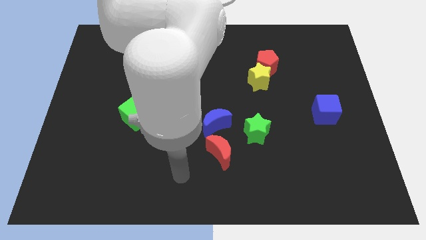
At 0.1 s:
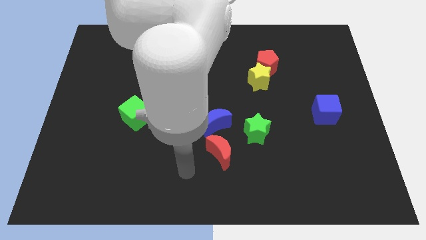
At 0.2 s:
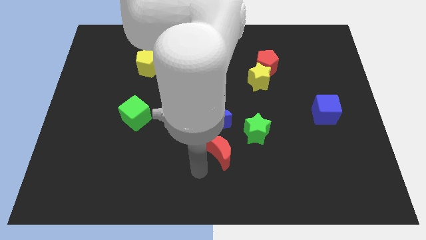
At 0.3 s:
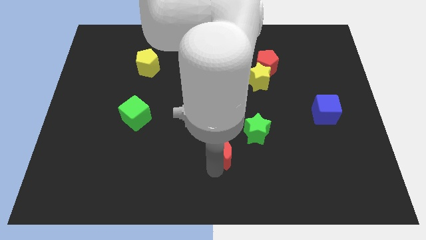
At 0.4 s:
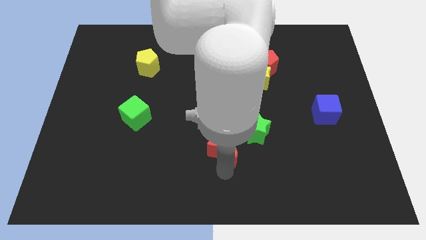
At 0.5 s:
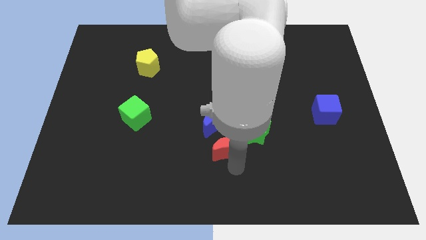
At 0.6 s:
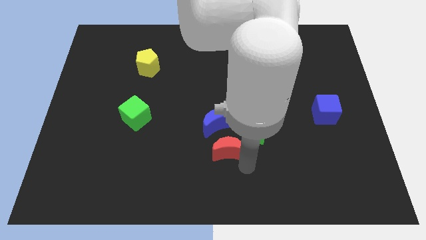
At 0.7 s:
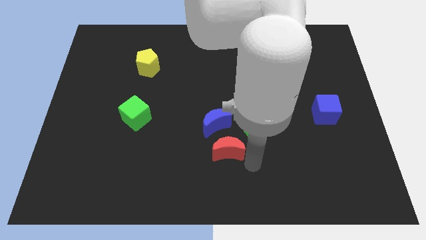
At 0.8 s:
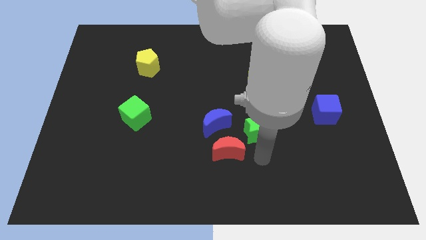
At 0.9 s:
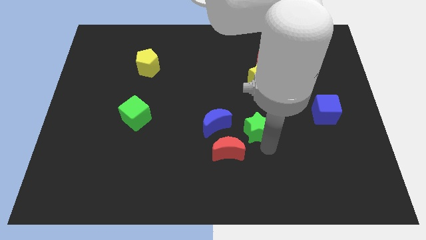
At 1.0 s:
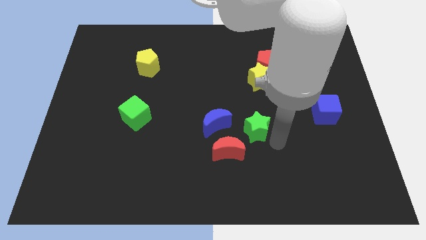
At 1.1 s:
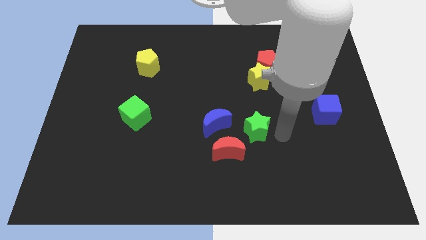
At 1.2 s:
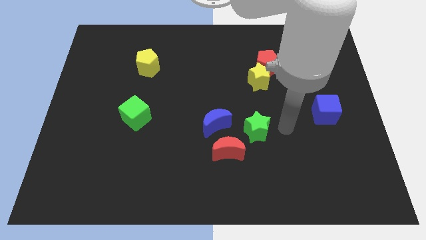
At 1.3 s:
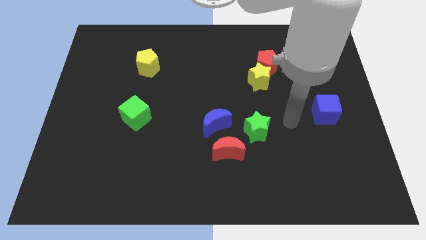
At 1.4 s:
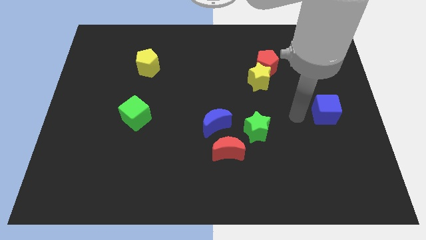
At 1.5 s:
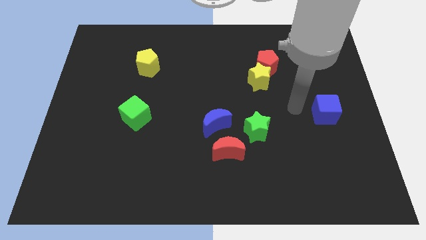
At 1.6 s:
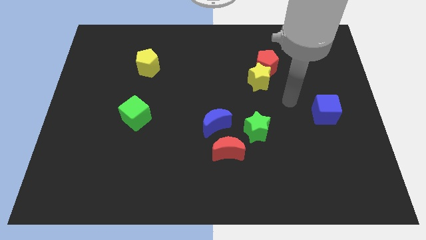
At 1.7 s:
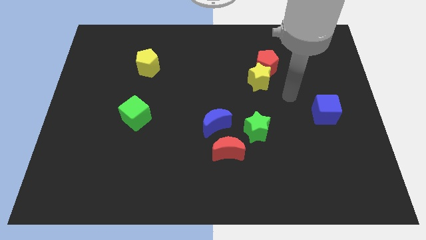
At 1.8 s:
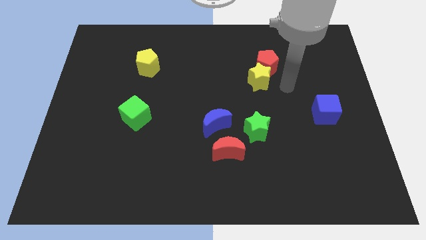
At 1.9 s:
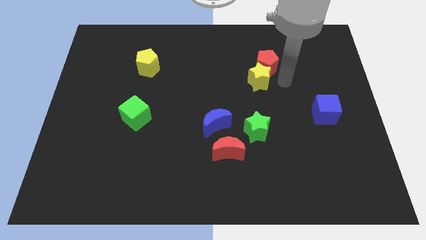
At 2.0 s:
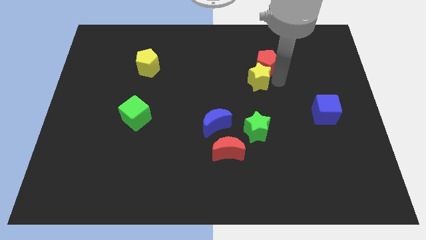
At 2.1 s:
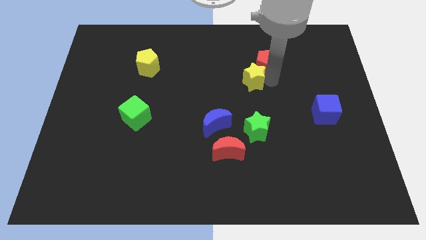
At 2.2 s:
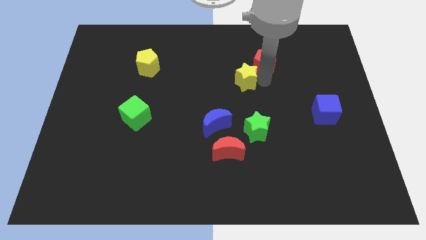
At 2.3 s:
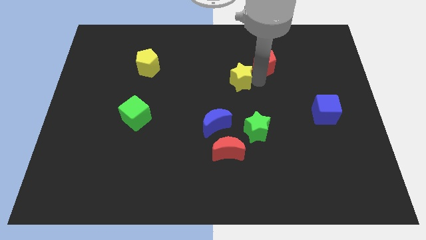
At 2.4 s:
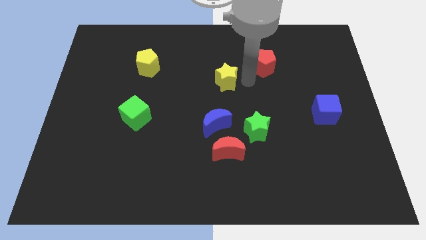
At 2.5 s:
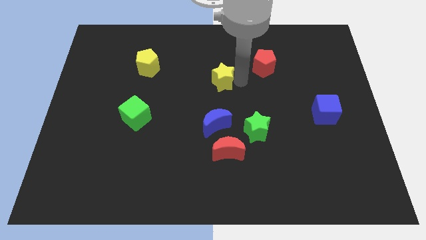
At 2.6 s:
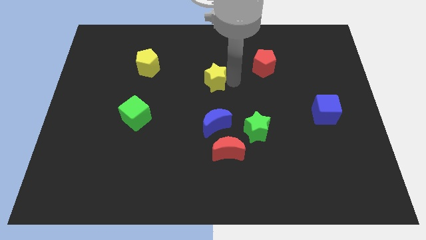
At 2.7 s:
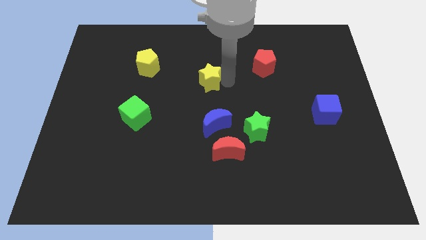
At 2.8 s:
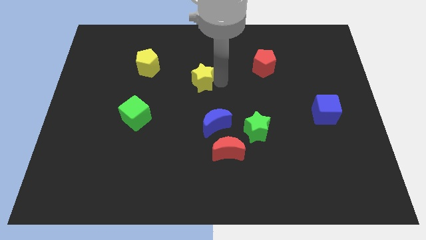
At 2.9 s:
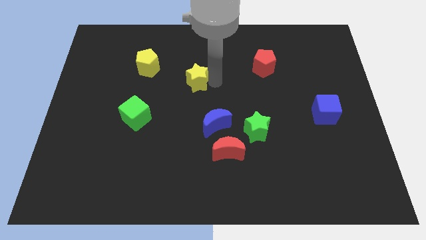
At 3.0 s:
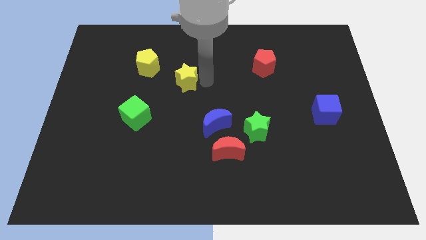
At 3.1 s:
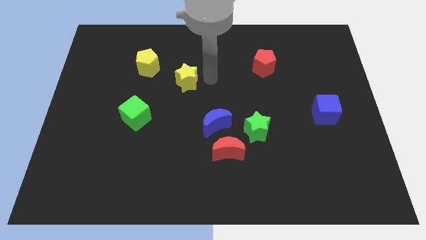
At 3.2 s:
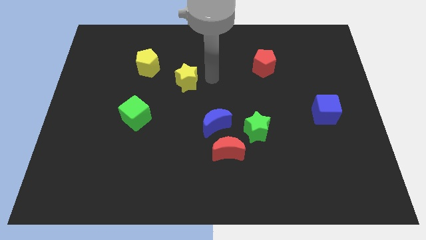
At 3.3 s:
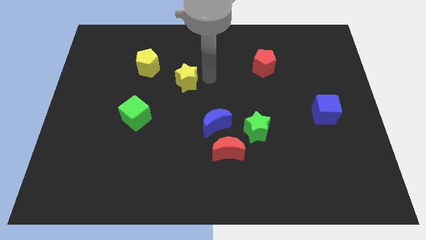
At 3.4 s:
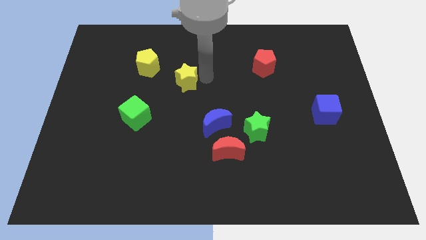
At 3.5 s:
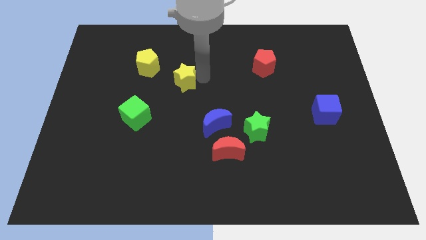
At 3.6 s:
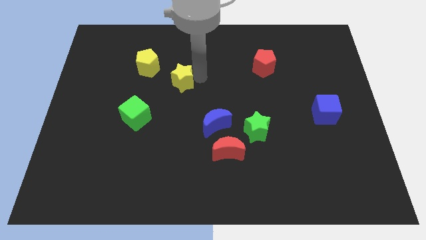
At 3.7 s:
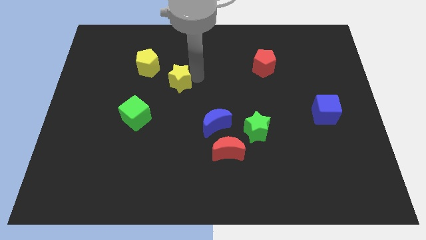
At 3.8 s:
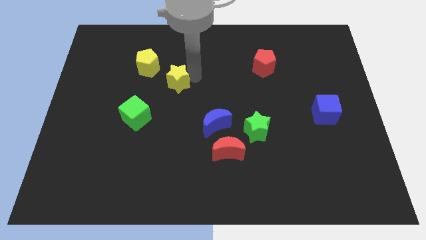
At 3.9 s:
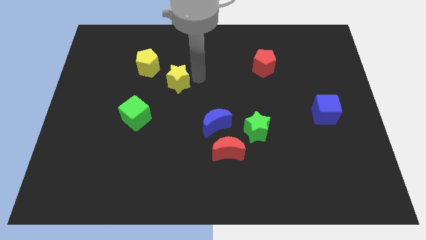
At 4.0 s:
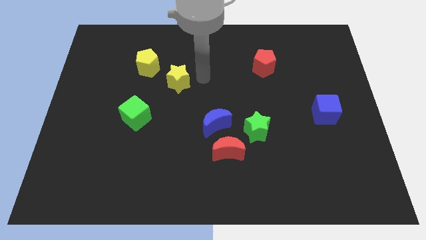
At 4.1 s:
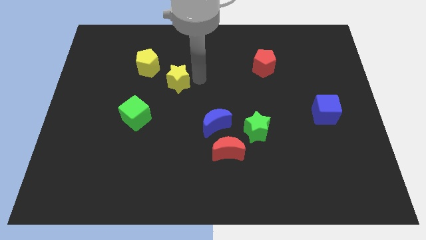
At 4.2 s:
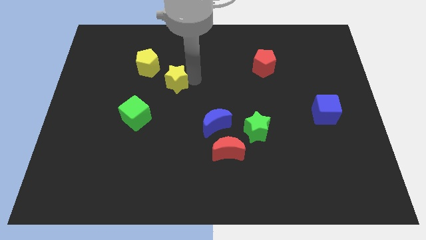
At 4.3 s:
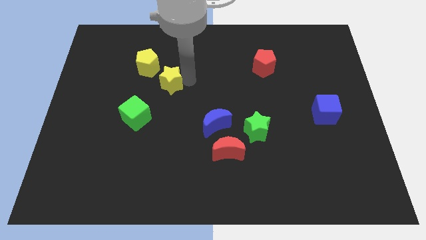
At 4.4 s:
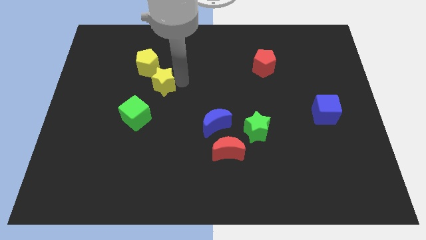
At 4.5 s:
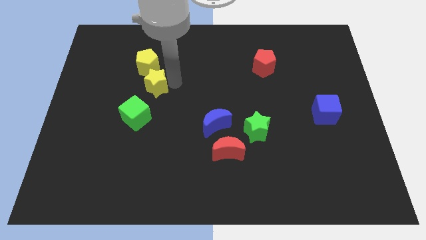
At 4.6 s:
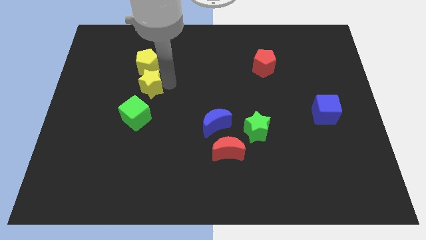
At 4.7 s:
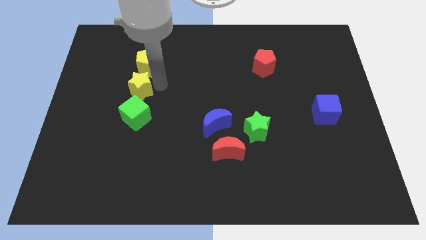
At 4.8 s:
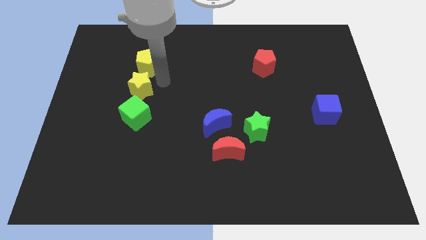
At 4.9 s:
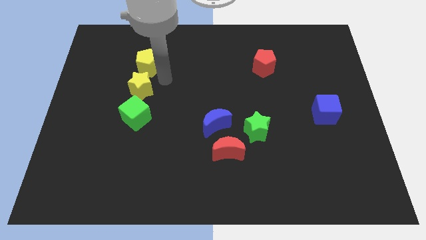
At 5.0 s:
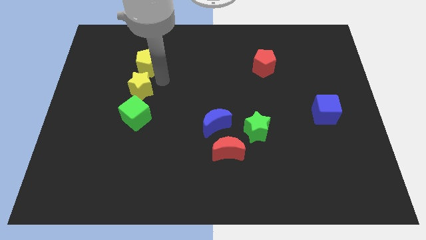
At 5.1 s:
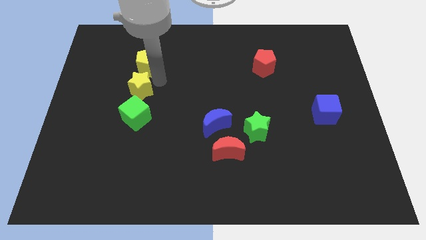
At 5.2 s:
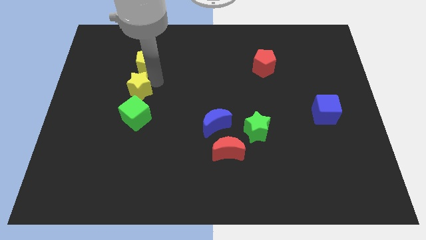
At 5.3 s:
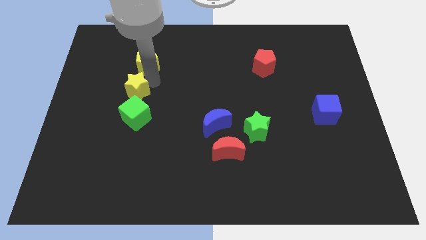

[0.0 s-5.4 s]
push the yellow star diagonally up and to the left of the green cube

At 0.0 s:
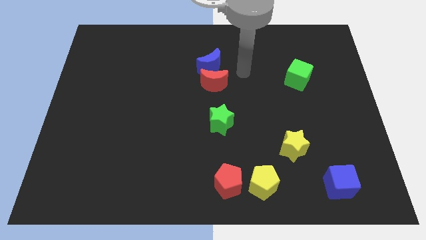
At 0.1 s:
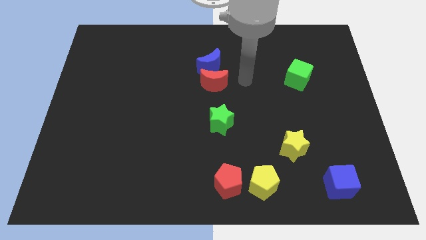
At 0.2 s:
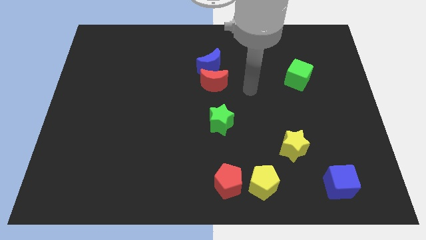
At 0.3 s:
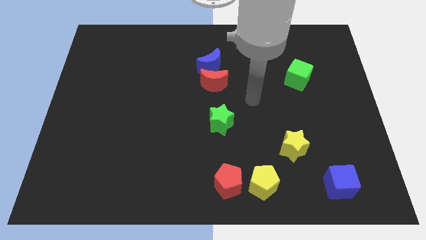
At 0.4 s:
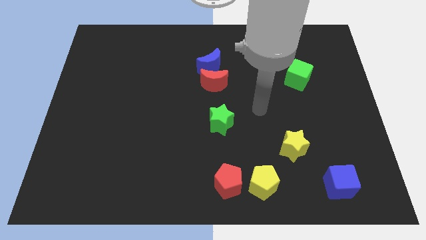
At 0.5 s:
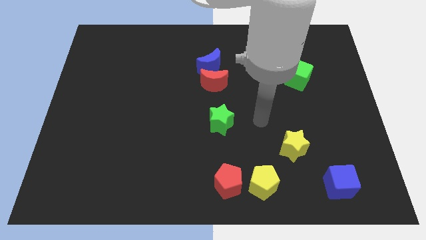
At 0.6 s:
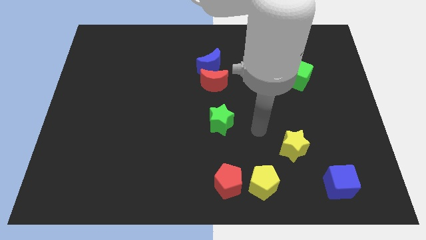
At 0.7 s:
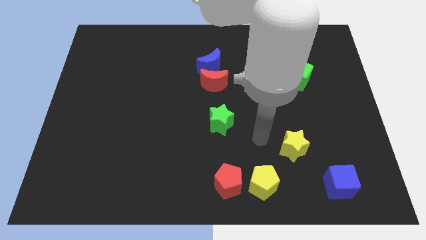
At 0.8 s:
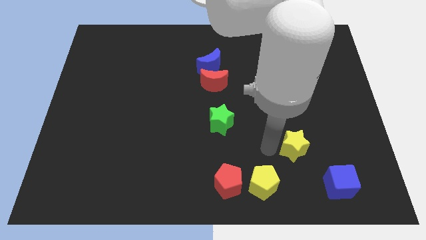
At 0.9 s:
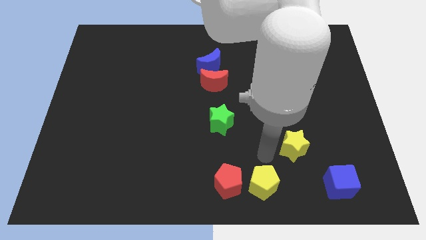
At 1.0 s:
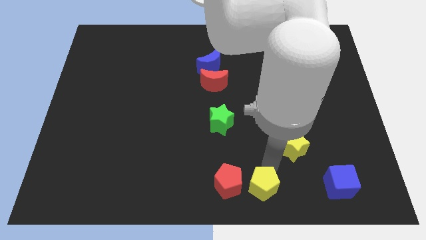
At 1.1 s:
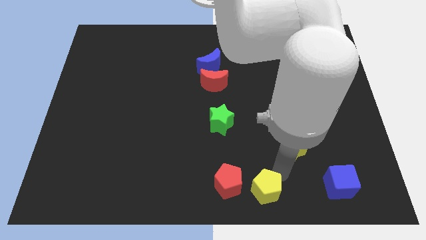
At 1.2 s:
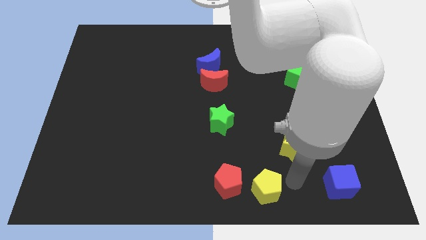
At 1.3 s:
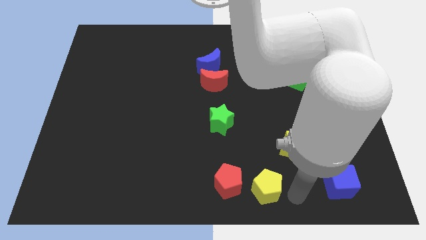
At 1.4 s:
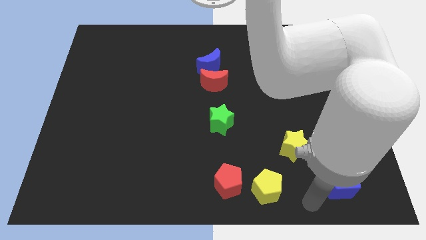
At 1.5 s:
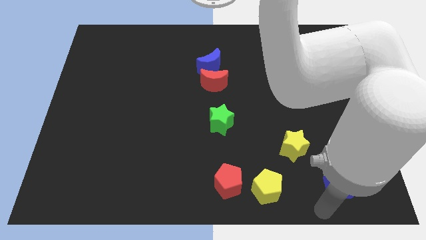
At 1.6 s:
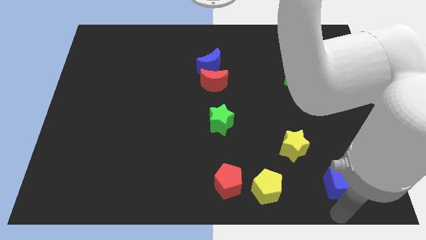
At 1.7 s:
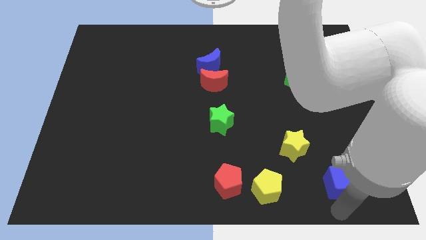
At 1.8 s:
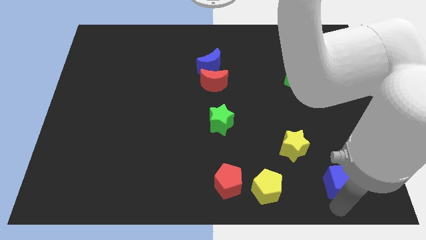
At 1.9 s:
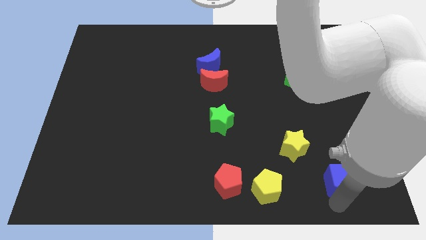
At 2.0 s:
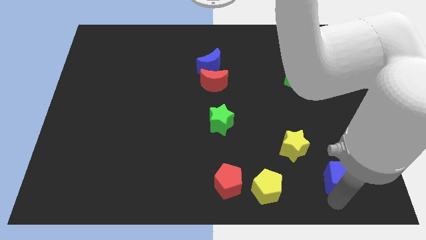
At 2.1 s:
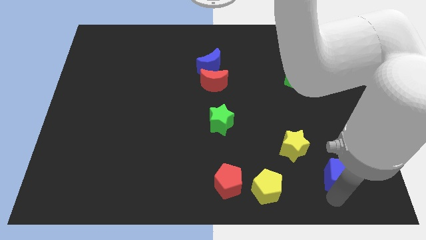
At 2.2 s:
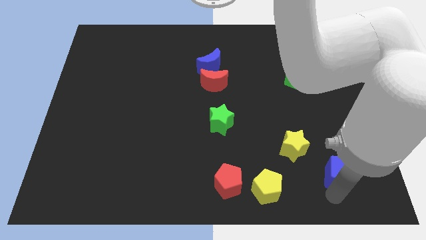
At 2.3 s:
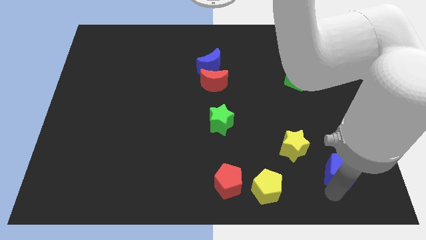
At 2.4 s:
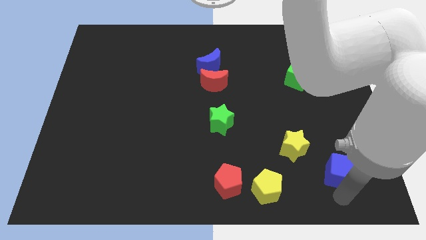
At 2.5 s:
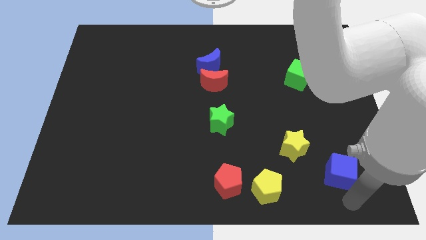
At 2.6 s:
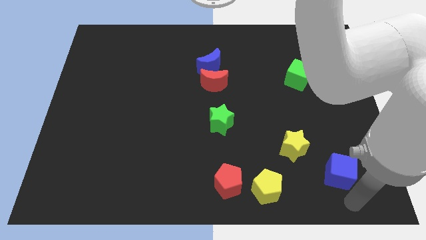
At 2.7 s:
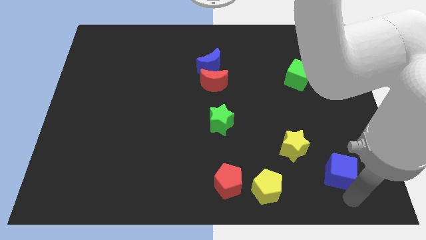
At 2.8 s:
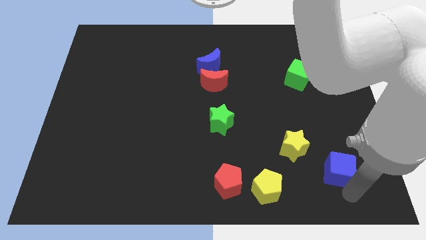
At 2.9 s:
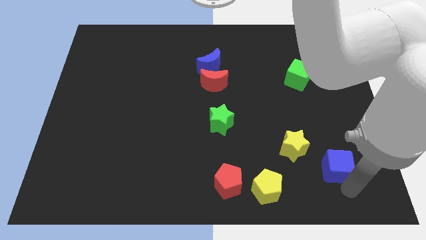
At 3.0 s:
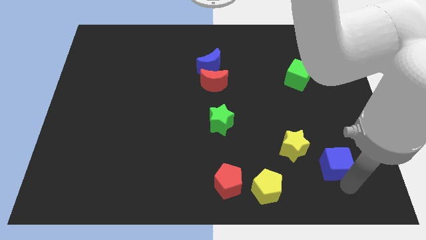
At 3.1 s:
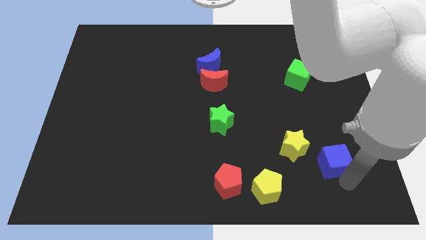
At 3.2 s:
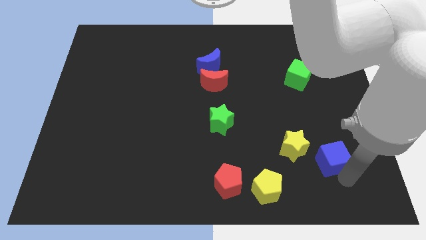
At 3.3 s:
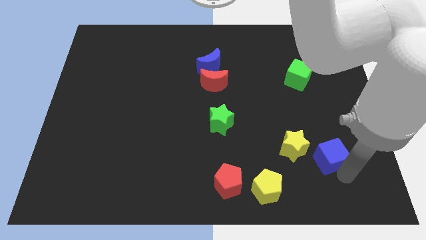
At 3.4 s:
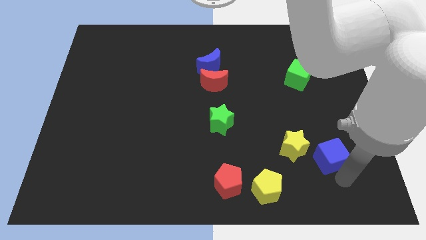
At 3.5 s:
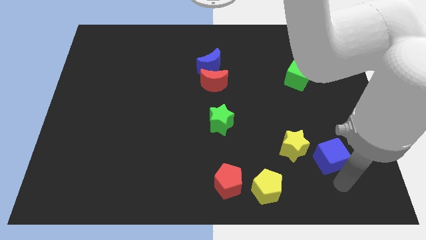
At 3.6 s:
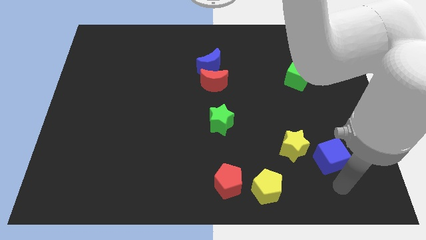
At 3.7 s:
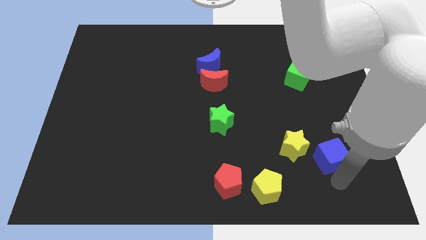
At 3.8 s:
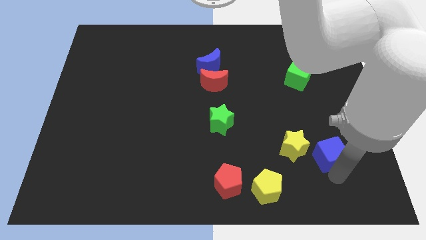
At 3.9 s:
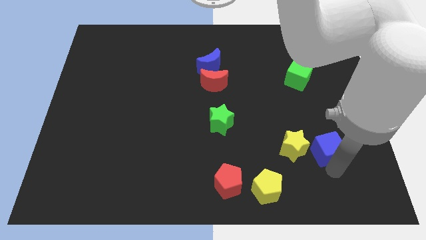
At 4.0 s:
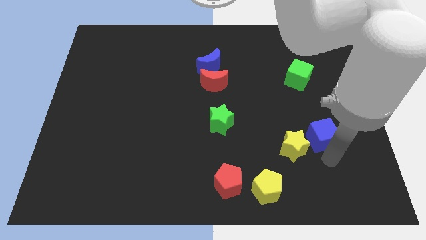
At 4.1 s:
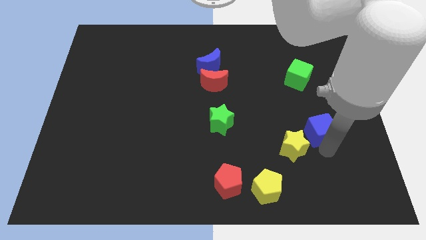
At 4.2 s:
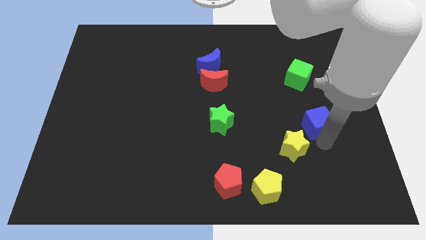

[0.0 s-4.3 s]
slide the blue cube to the bottom side of the green cube
